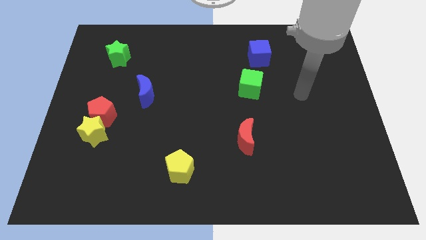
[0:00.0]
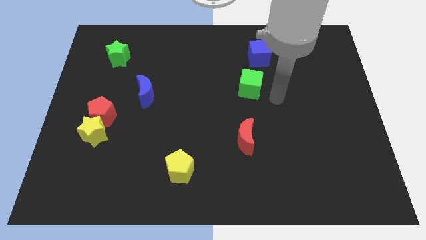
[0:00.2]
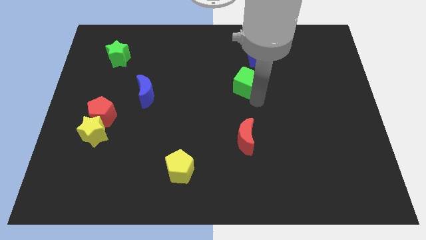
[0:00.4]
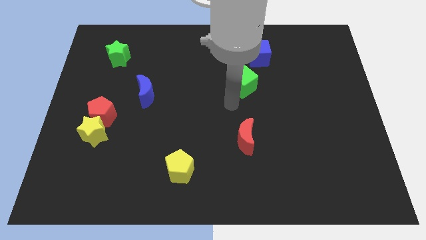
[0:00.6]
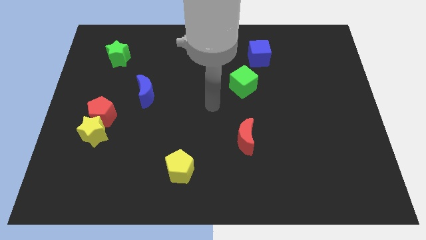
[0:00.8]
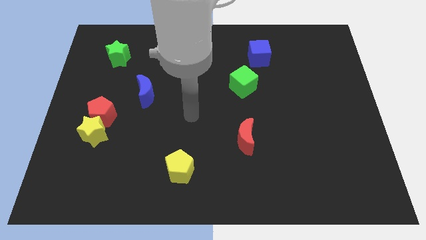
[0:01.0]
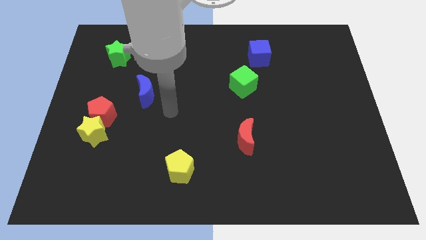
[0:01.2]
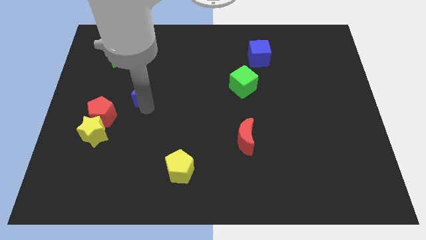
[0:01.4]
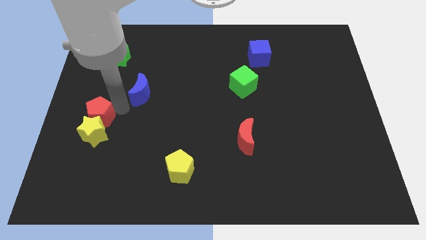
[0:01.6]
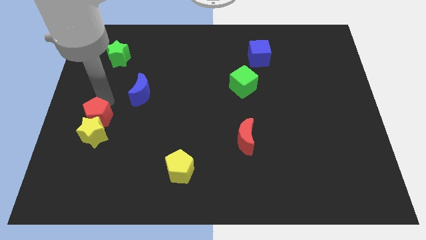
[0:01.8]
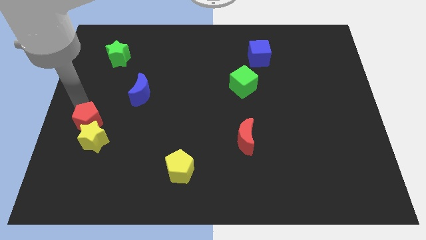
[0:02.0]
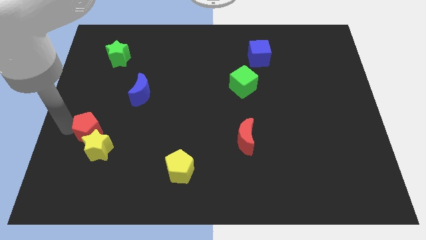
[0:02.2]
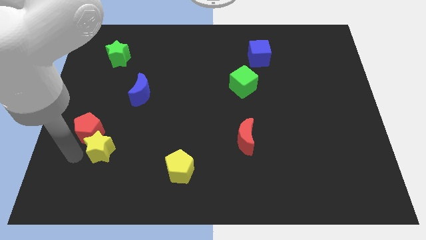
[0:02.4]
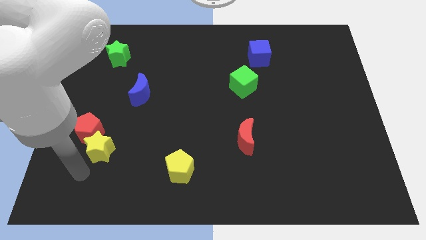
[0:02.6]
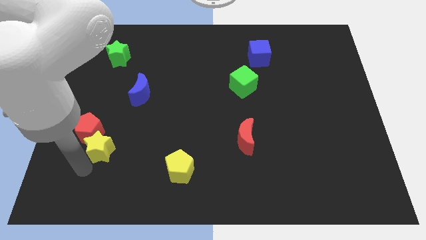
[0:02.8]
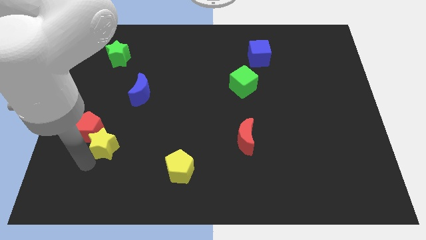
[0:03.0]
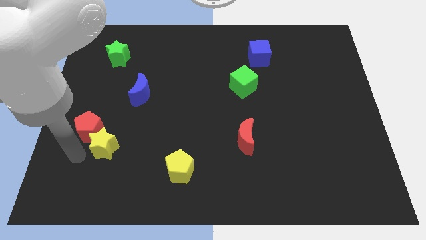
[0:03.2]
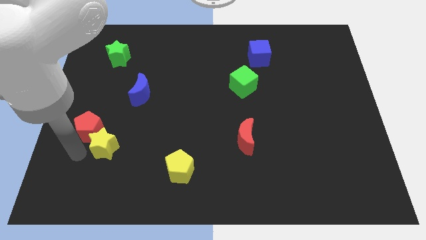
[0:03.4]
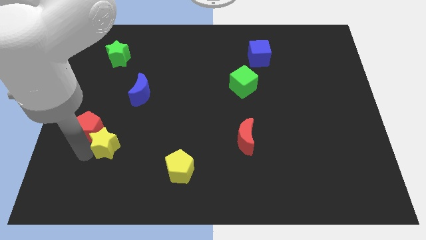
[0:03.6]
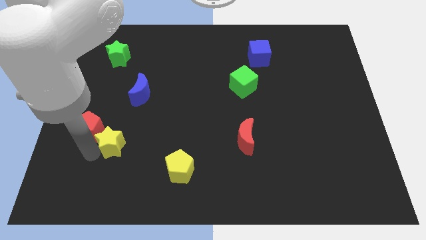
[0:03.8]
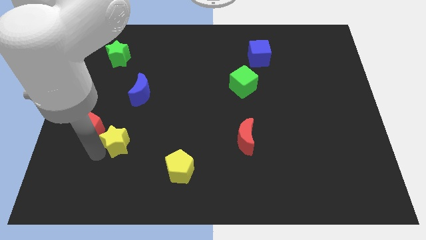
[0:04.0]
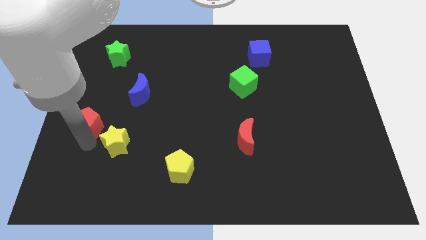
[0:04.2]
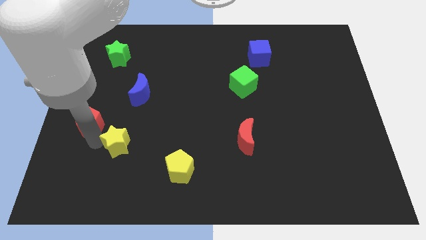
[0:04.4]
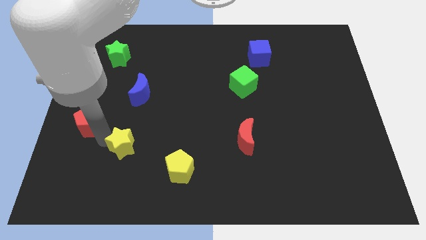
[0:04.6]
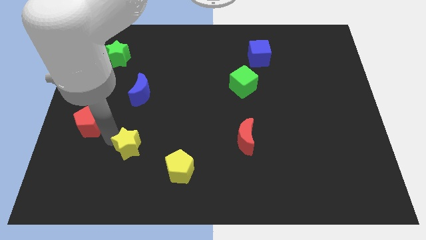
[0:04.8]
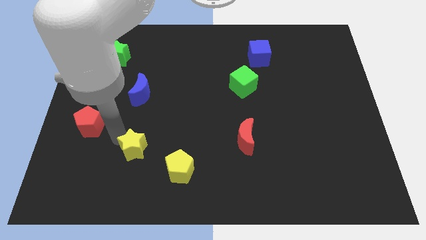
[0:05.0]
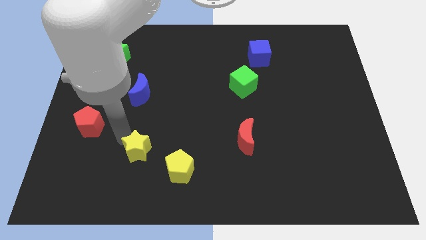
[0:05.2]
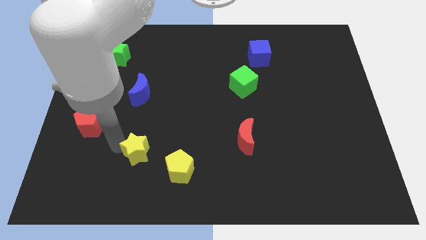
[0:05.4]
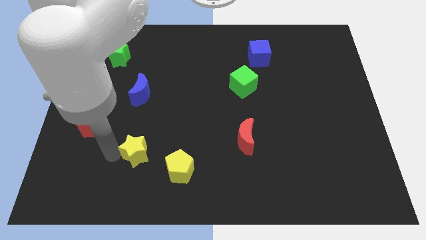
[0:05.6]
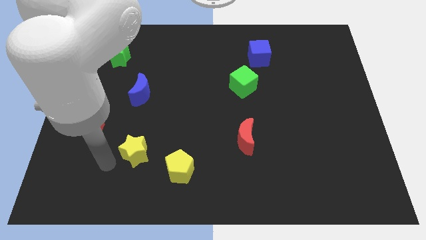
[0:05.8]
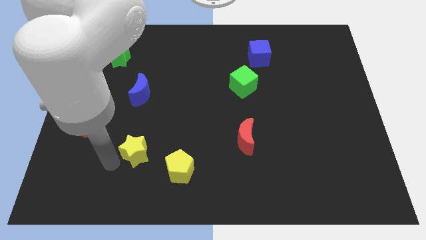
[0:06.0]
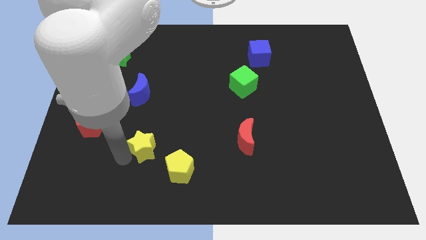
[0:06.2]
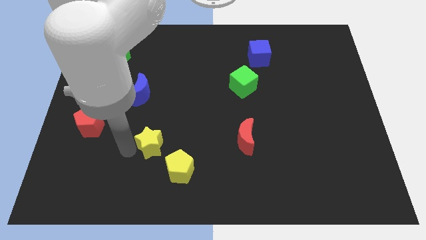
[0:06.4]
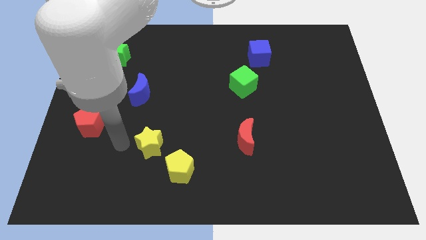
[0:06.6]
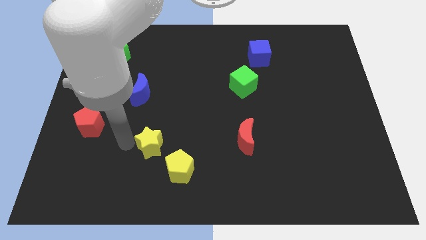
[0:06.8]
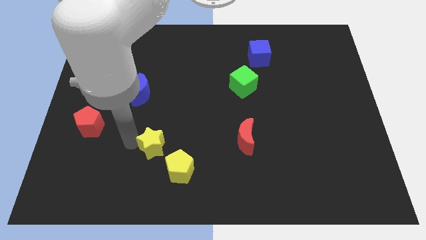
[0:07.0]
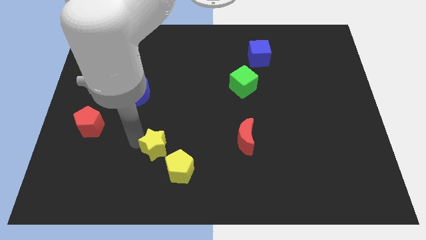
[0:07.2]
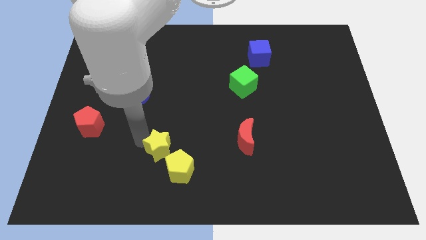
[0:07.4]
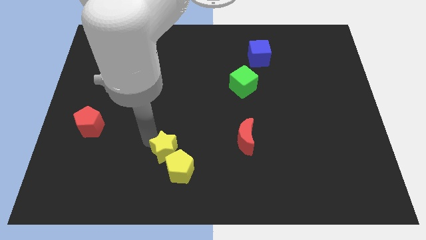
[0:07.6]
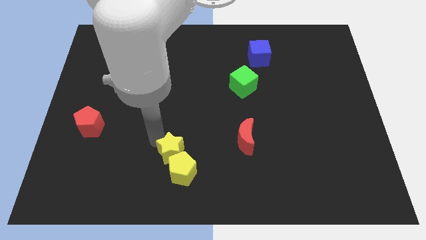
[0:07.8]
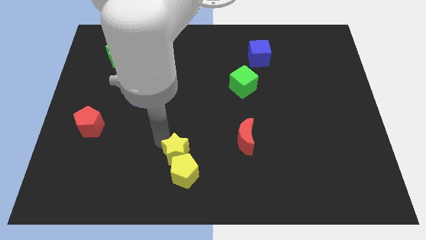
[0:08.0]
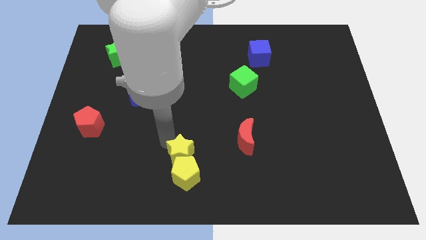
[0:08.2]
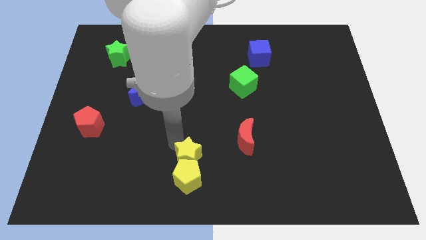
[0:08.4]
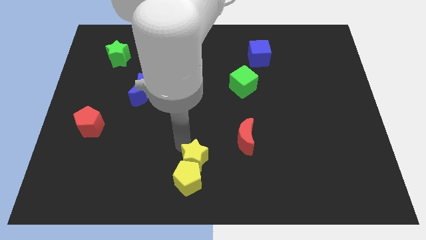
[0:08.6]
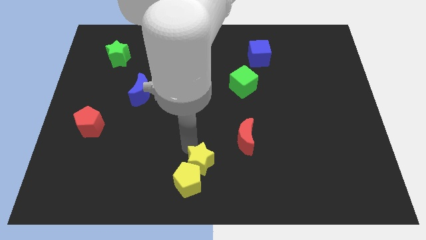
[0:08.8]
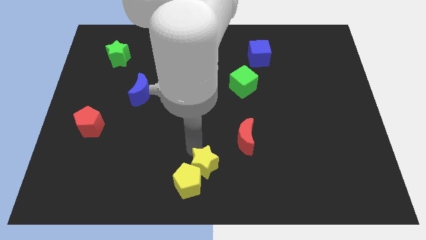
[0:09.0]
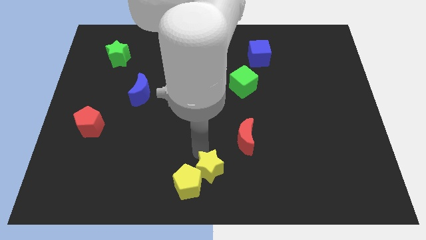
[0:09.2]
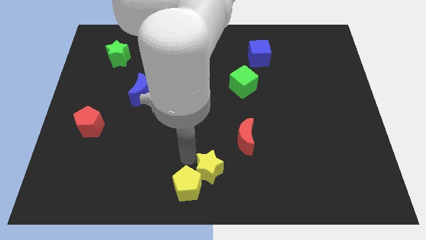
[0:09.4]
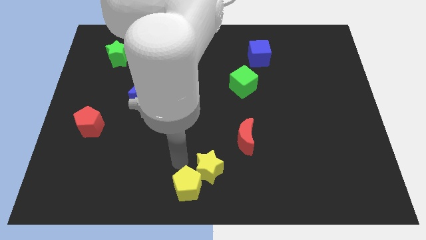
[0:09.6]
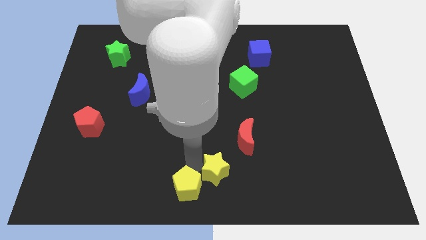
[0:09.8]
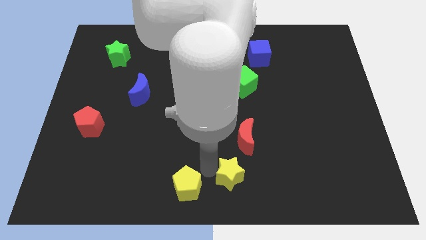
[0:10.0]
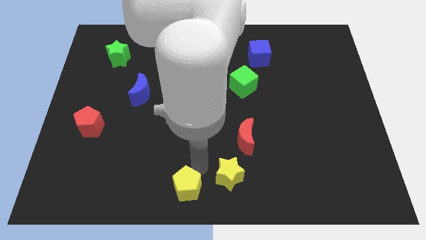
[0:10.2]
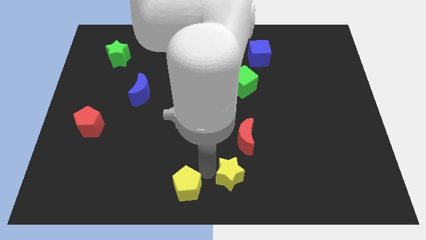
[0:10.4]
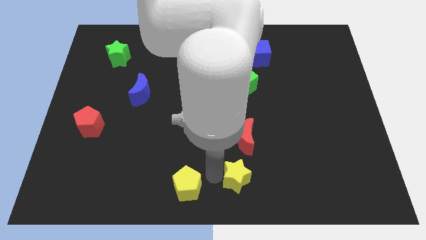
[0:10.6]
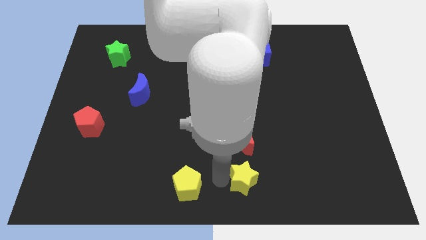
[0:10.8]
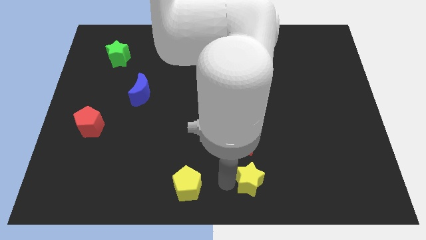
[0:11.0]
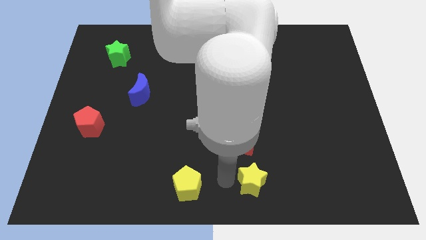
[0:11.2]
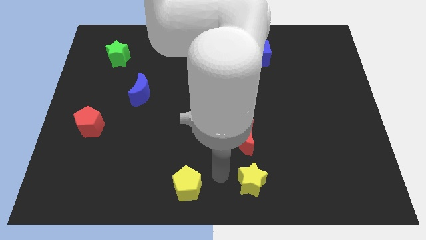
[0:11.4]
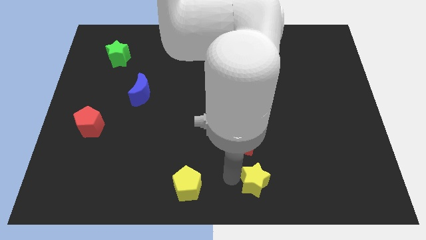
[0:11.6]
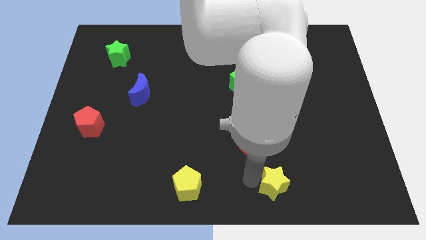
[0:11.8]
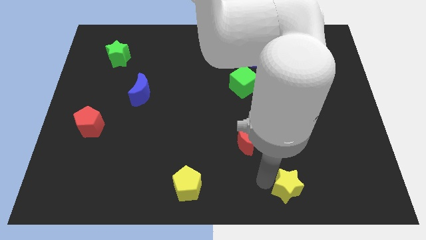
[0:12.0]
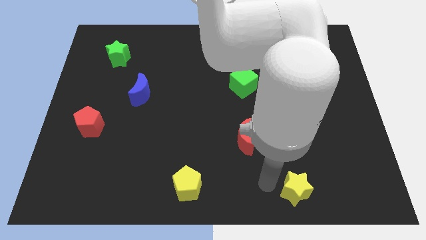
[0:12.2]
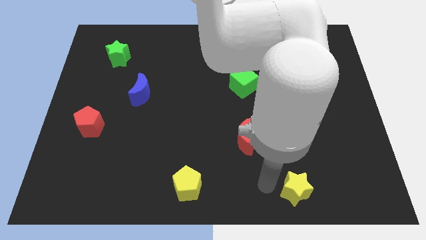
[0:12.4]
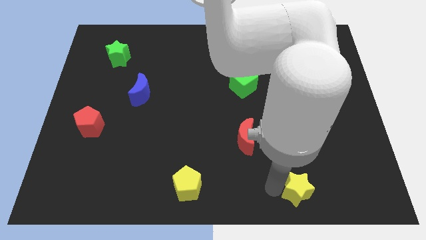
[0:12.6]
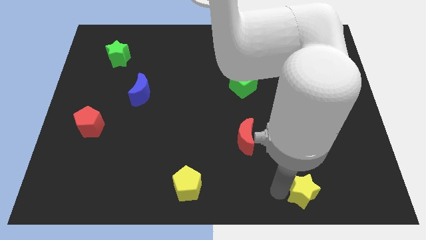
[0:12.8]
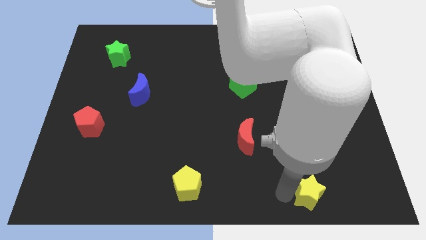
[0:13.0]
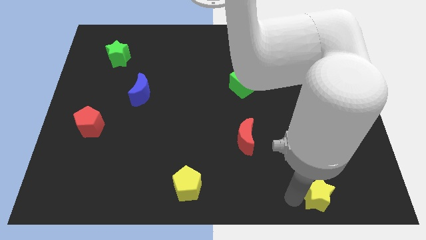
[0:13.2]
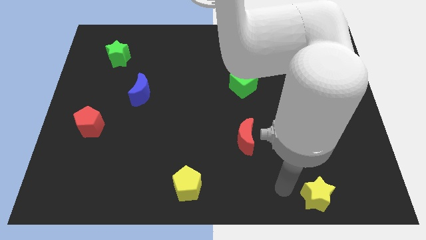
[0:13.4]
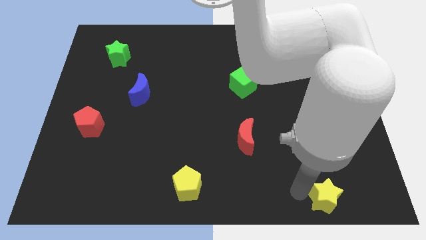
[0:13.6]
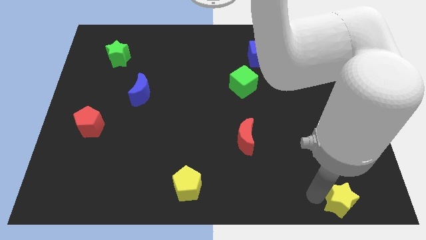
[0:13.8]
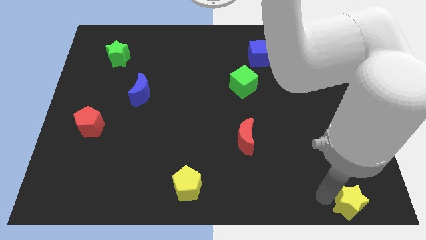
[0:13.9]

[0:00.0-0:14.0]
slide the yellow star to the bottom right of the board
